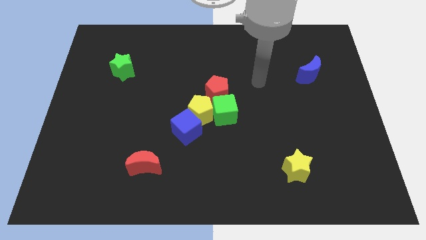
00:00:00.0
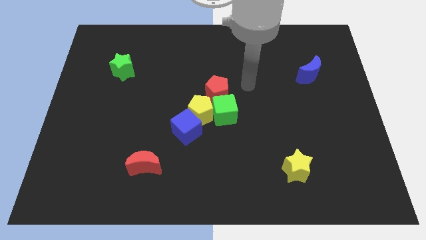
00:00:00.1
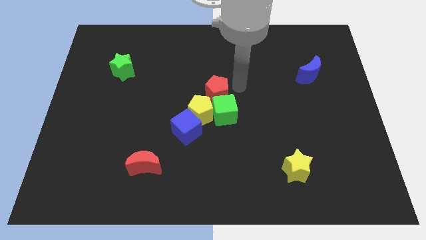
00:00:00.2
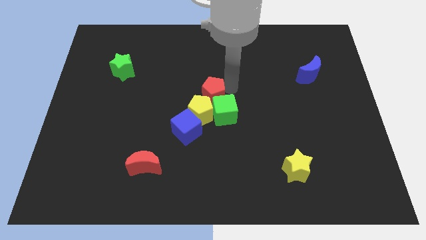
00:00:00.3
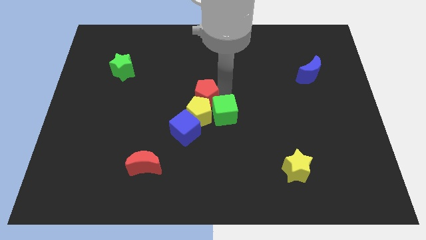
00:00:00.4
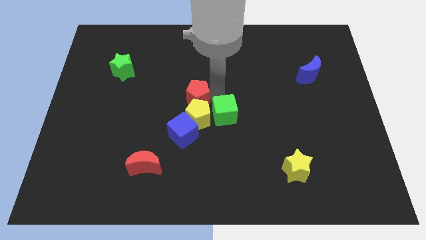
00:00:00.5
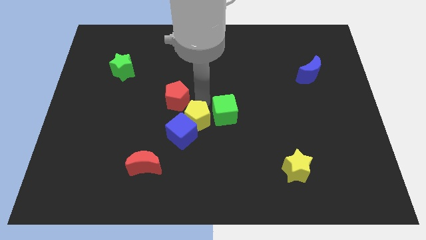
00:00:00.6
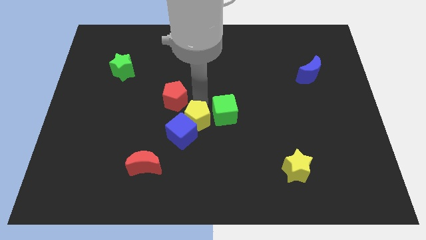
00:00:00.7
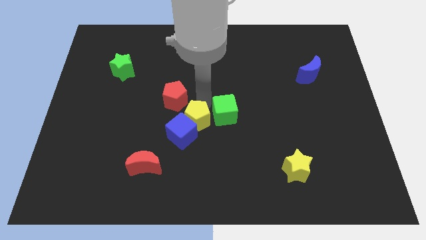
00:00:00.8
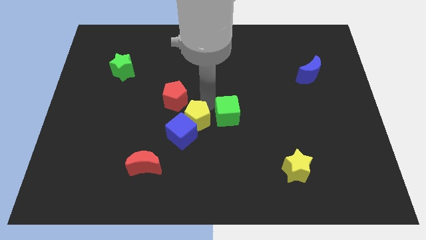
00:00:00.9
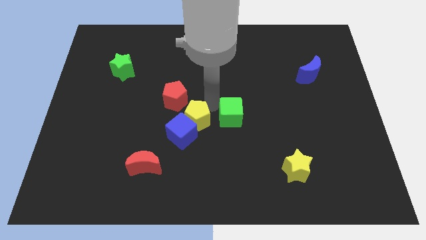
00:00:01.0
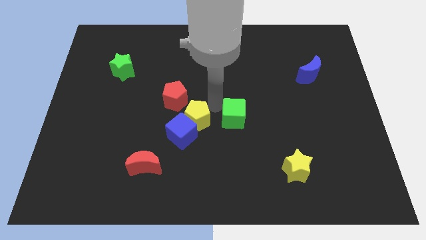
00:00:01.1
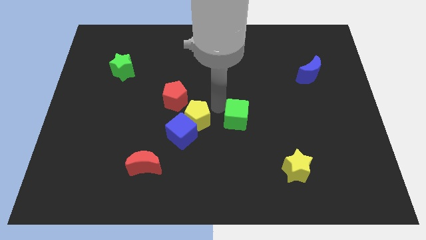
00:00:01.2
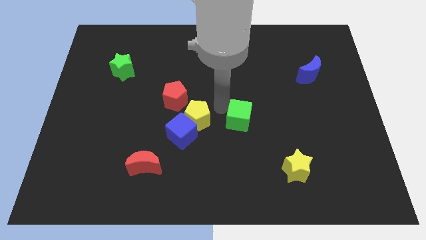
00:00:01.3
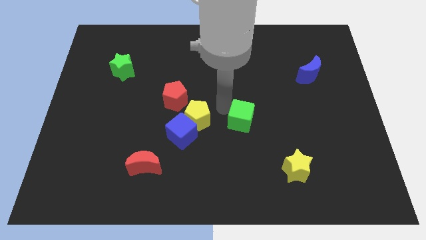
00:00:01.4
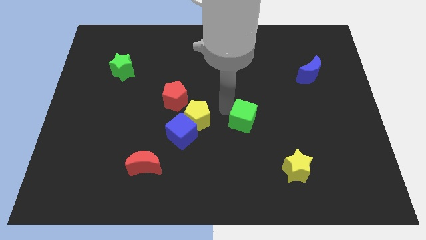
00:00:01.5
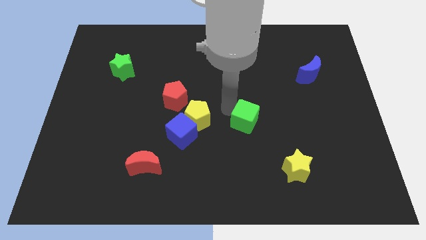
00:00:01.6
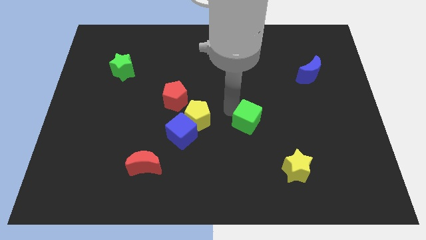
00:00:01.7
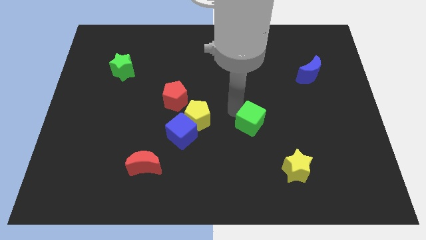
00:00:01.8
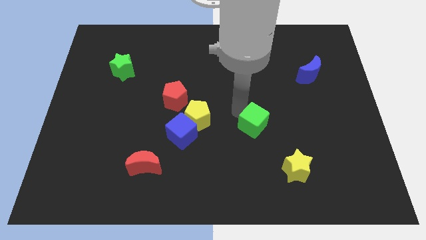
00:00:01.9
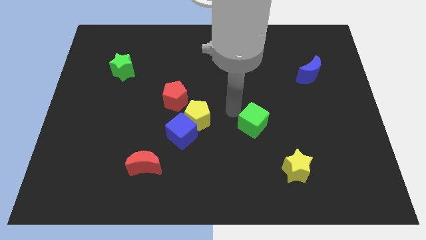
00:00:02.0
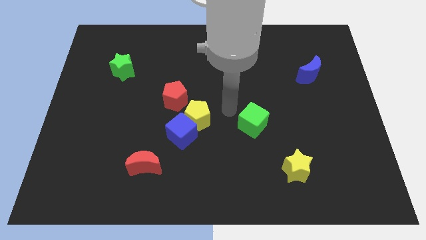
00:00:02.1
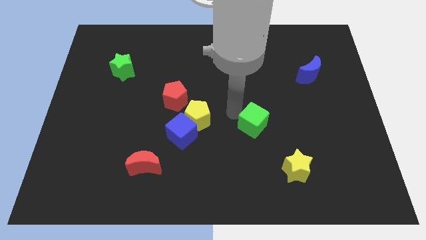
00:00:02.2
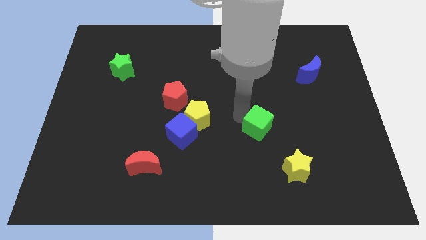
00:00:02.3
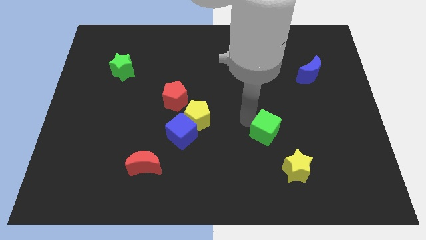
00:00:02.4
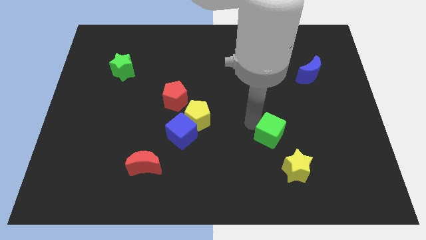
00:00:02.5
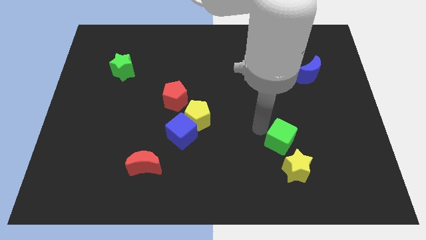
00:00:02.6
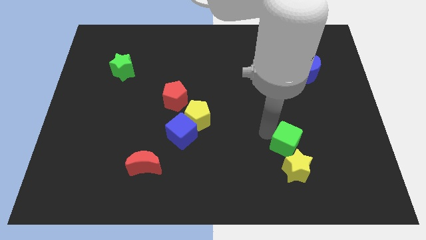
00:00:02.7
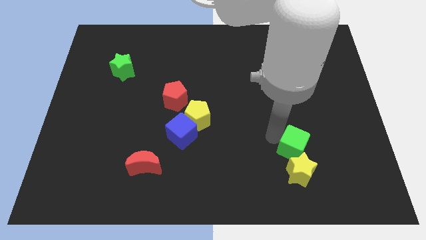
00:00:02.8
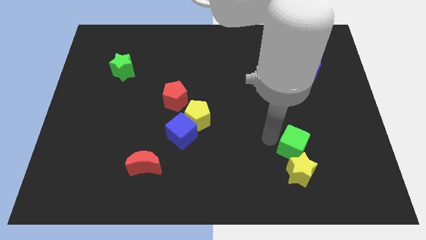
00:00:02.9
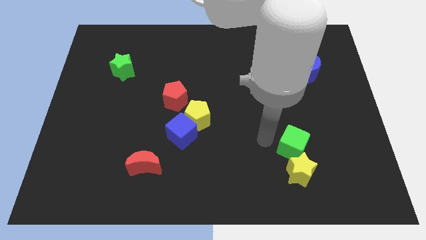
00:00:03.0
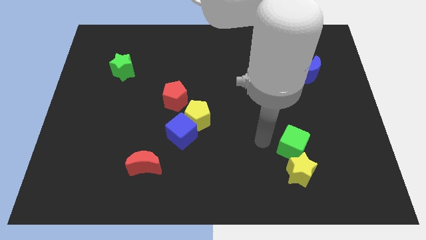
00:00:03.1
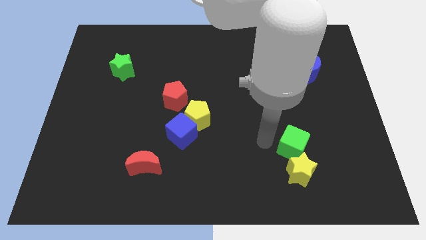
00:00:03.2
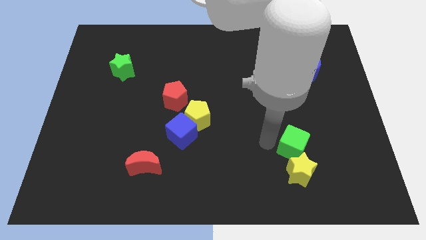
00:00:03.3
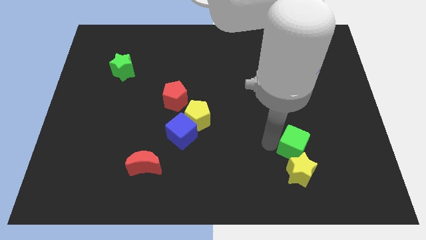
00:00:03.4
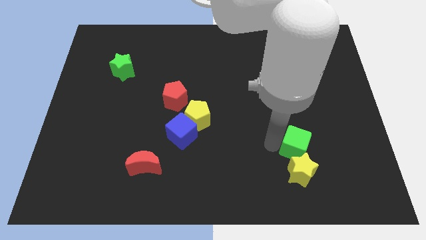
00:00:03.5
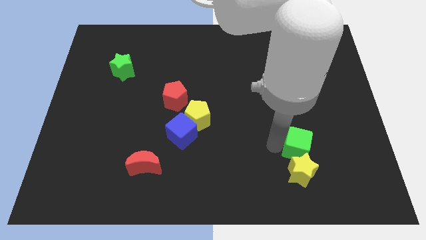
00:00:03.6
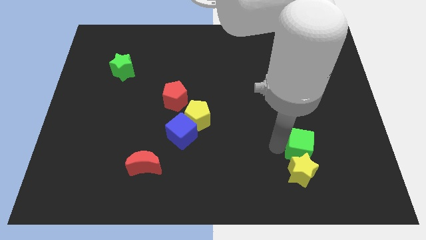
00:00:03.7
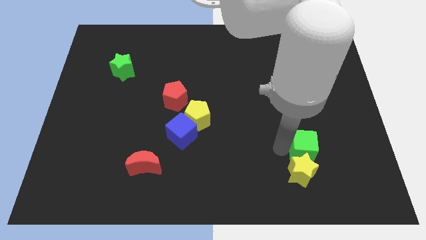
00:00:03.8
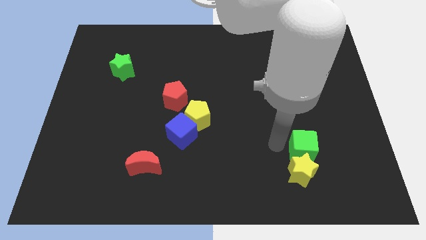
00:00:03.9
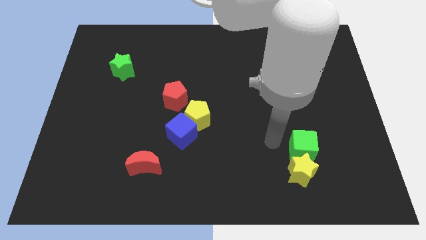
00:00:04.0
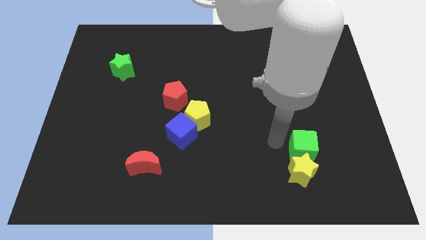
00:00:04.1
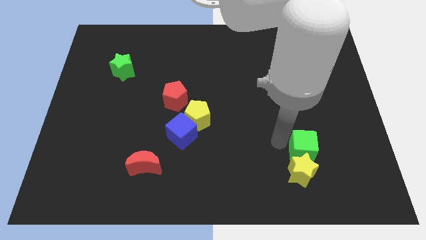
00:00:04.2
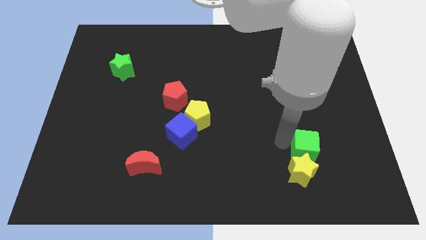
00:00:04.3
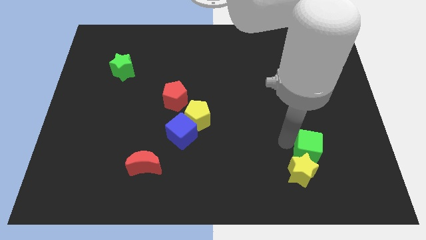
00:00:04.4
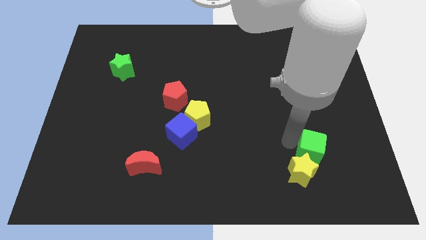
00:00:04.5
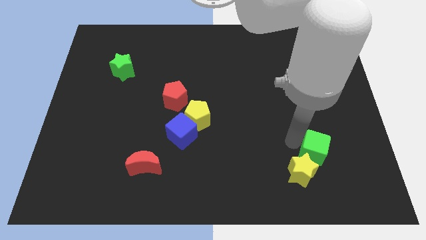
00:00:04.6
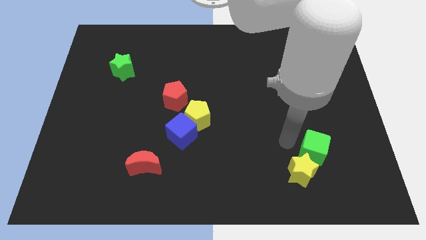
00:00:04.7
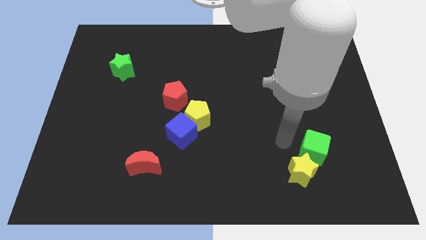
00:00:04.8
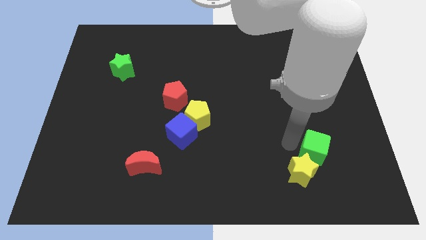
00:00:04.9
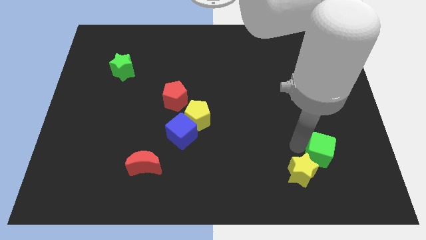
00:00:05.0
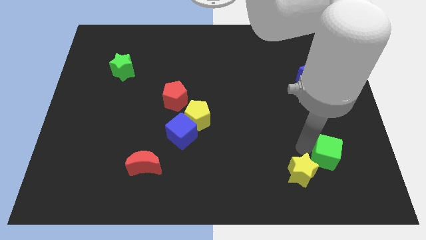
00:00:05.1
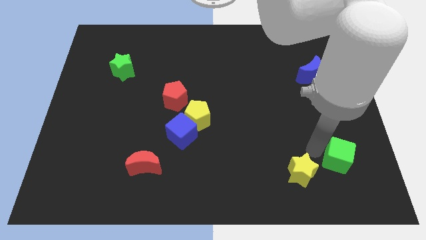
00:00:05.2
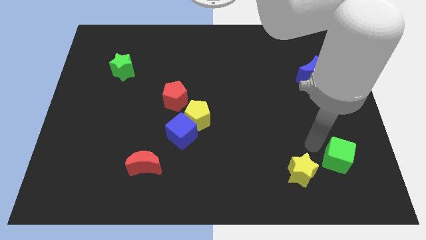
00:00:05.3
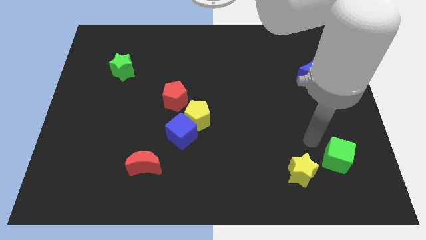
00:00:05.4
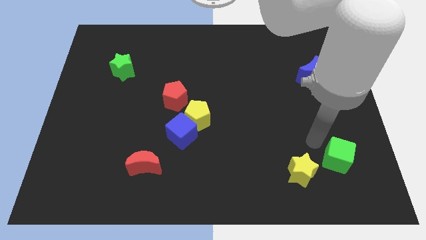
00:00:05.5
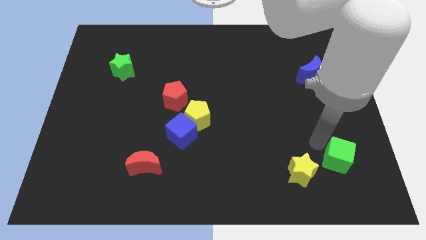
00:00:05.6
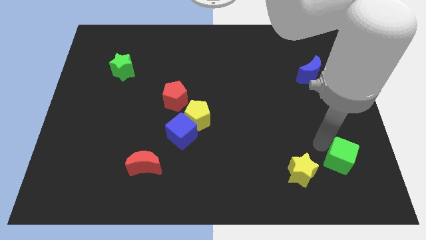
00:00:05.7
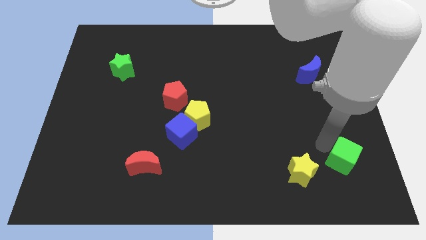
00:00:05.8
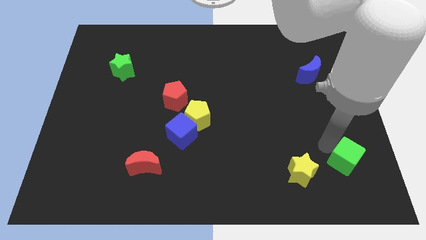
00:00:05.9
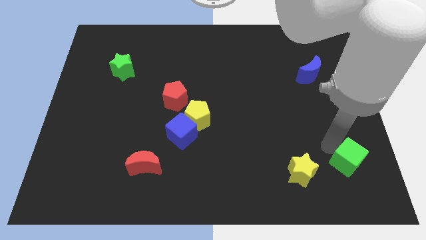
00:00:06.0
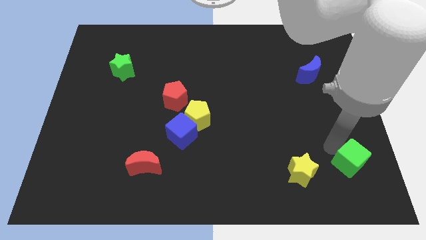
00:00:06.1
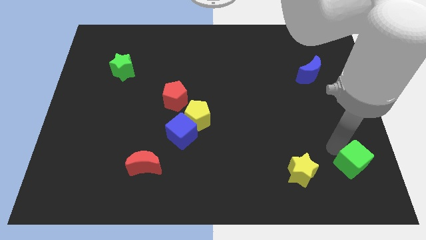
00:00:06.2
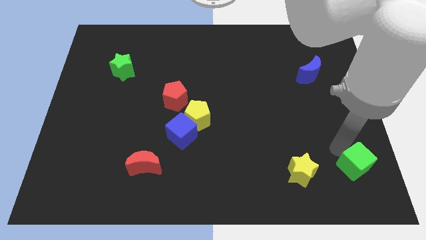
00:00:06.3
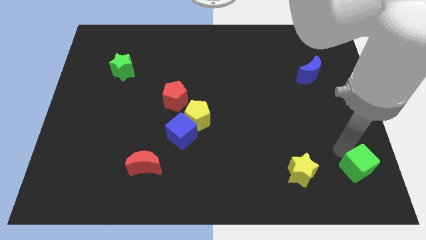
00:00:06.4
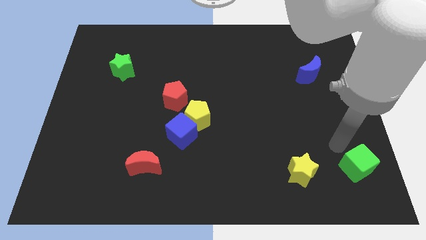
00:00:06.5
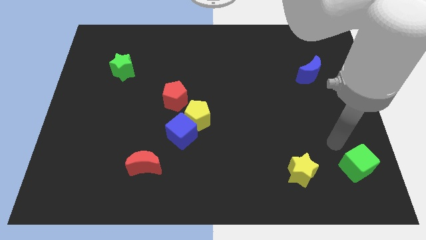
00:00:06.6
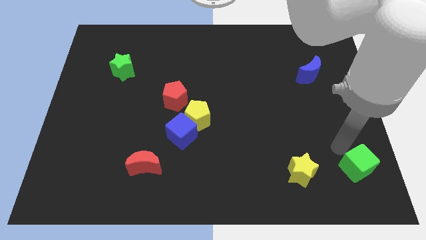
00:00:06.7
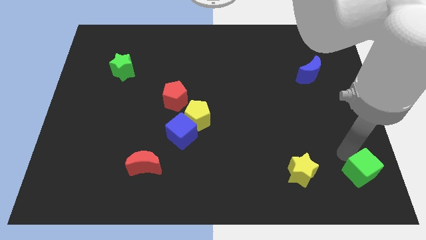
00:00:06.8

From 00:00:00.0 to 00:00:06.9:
slide the green cube to the lower right corner
